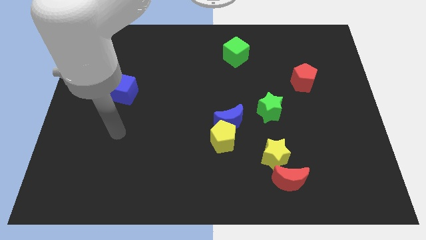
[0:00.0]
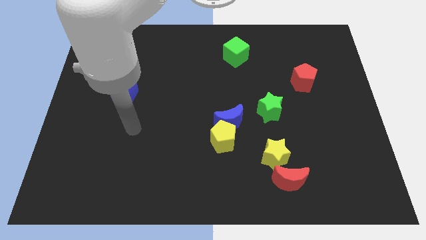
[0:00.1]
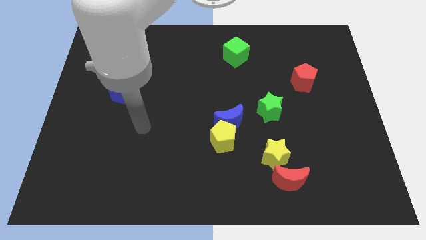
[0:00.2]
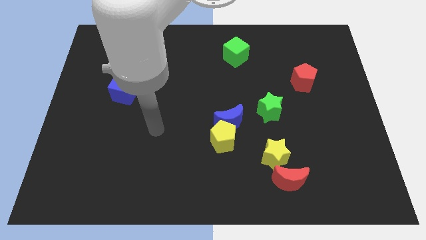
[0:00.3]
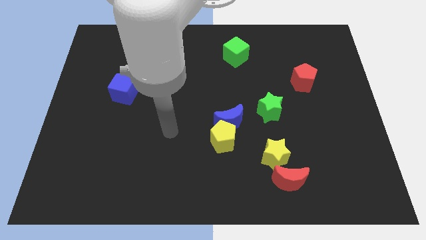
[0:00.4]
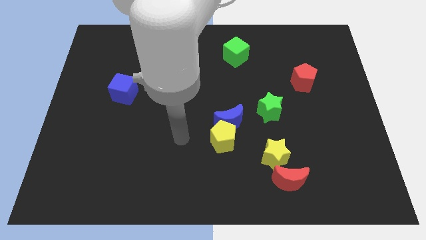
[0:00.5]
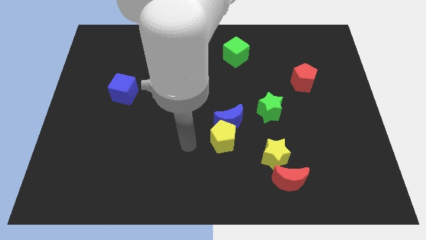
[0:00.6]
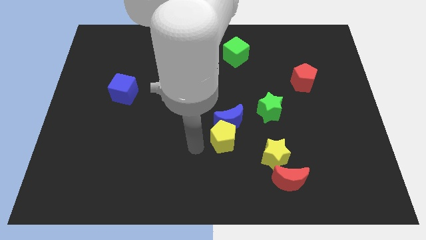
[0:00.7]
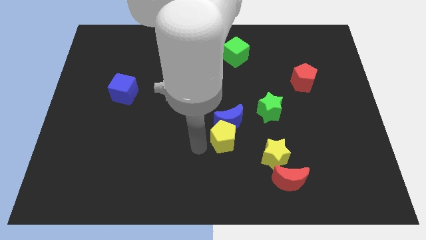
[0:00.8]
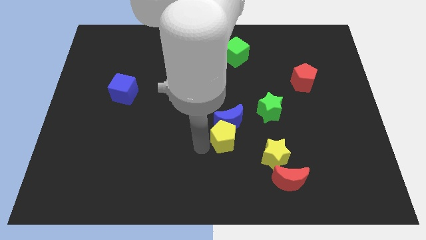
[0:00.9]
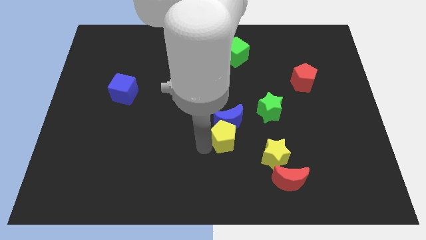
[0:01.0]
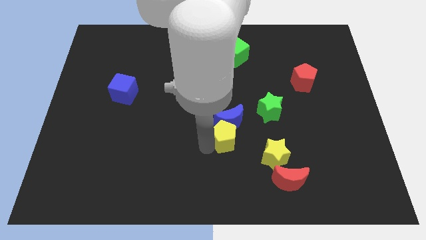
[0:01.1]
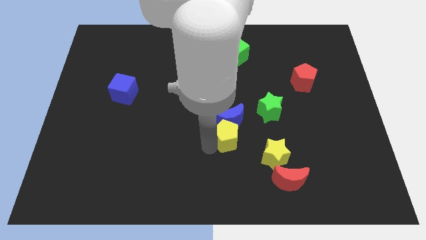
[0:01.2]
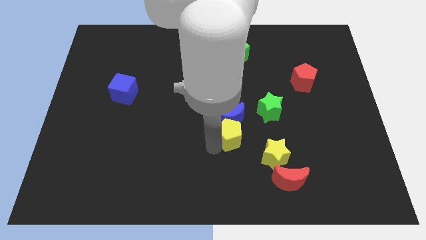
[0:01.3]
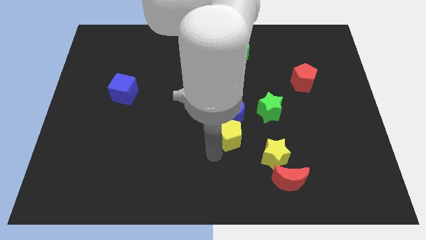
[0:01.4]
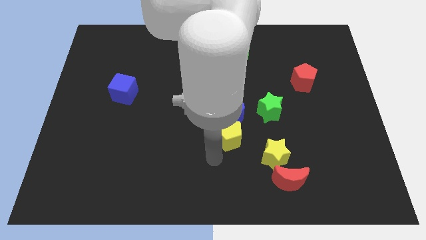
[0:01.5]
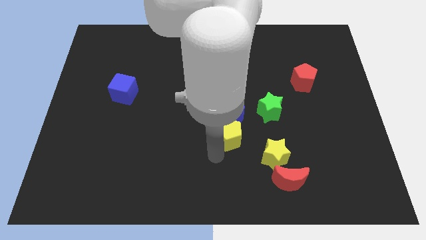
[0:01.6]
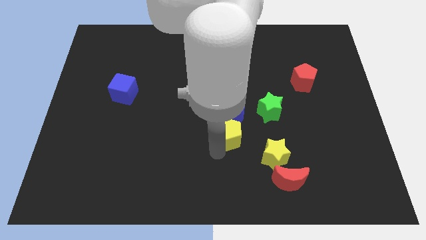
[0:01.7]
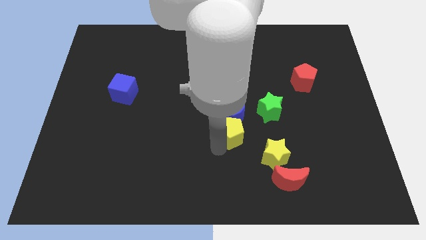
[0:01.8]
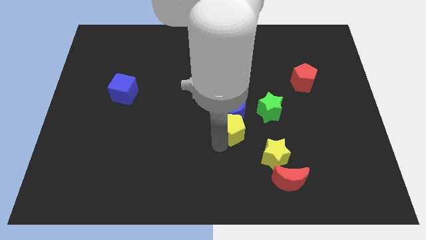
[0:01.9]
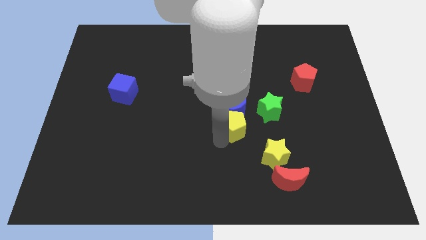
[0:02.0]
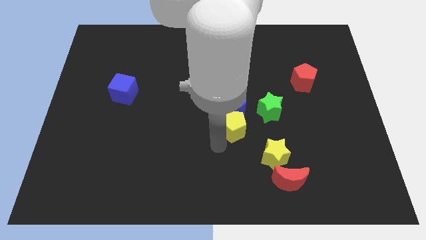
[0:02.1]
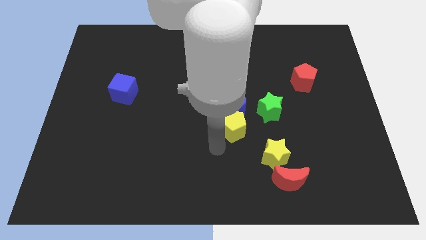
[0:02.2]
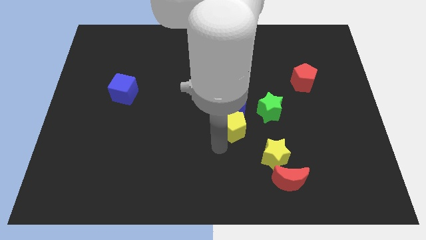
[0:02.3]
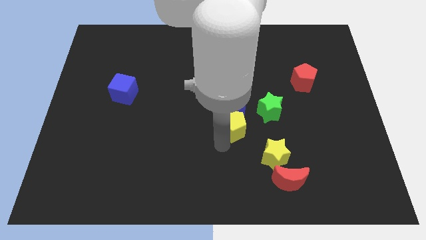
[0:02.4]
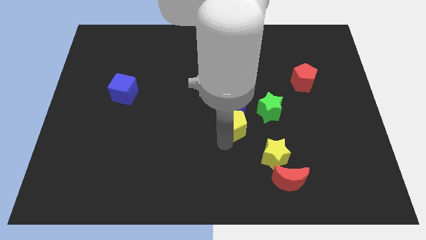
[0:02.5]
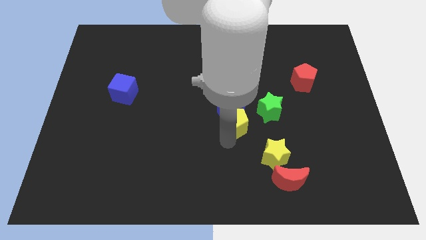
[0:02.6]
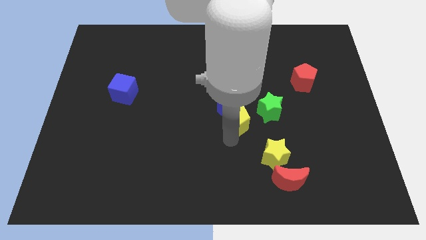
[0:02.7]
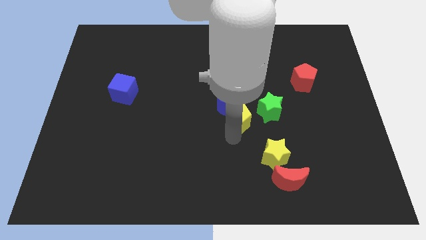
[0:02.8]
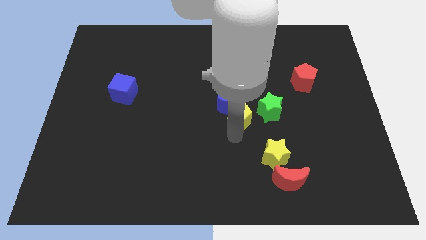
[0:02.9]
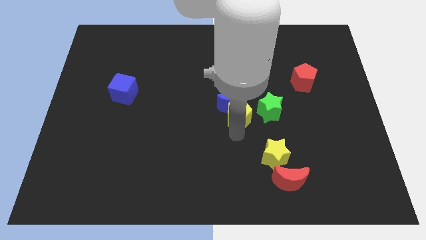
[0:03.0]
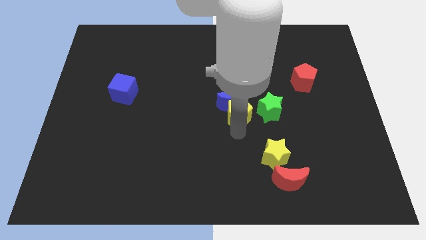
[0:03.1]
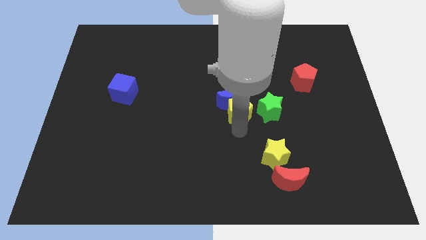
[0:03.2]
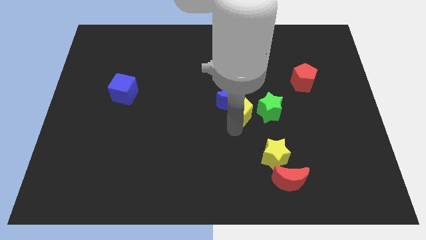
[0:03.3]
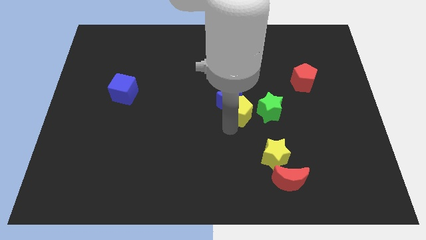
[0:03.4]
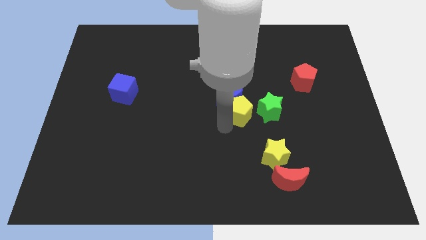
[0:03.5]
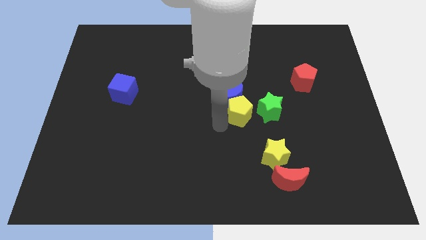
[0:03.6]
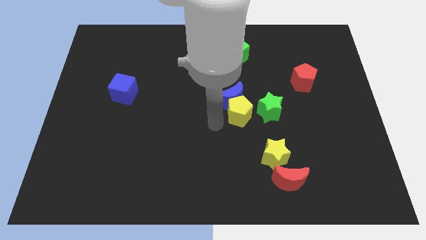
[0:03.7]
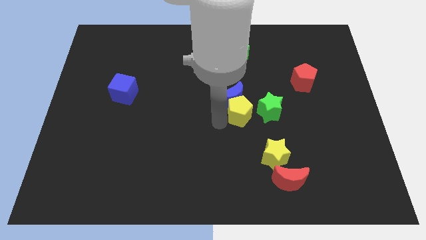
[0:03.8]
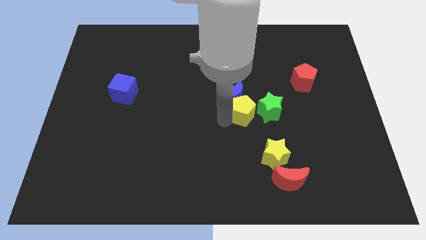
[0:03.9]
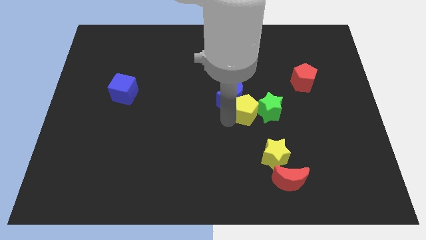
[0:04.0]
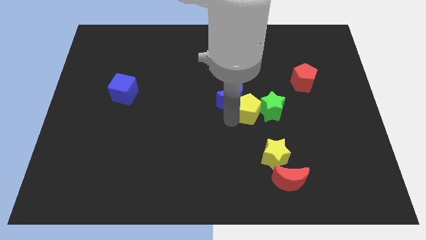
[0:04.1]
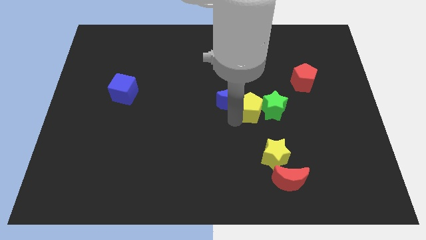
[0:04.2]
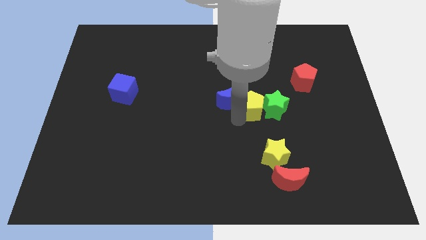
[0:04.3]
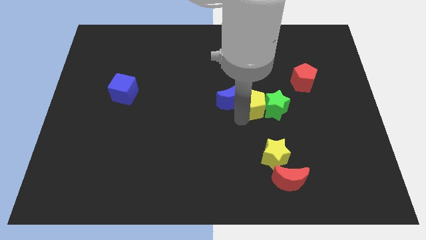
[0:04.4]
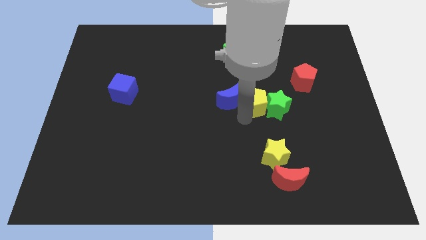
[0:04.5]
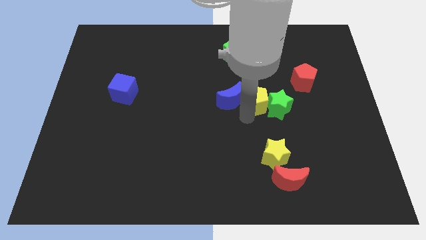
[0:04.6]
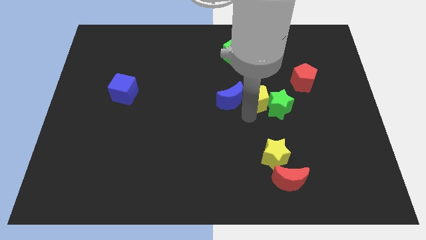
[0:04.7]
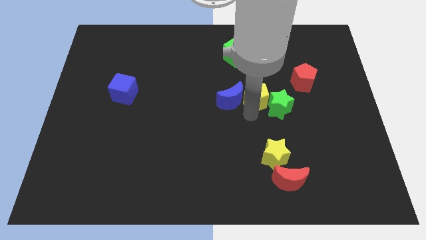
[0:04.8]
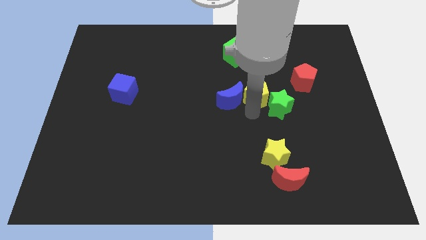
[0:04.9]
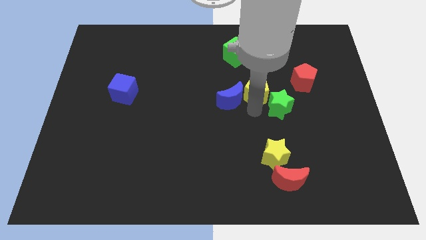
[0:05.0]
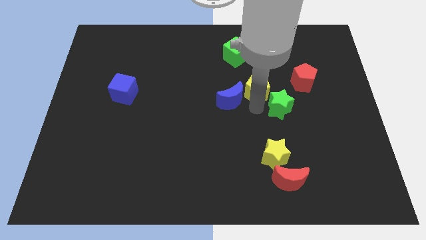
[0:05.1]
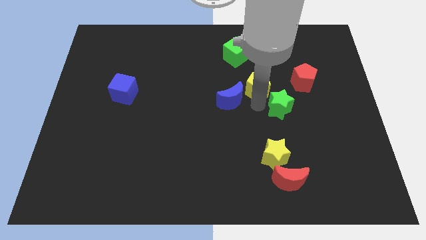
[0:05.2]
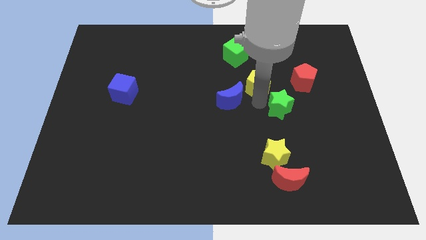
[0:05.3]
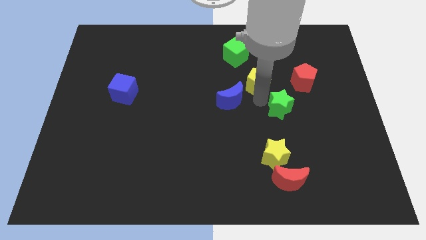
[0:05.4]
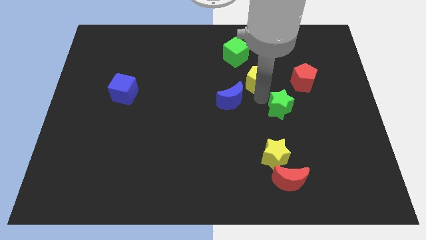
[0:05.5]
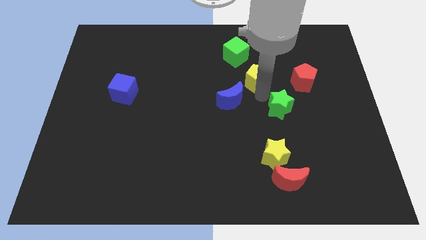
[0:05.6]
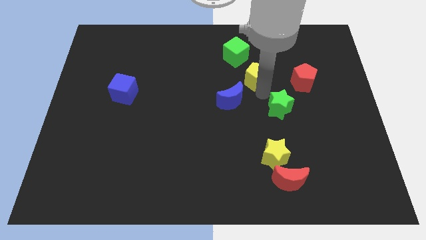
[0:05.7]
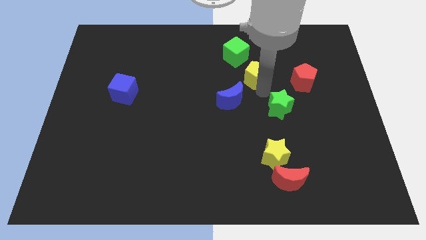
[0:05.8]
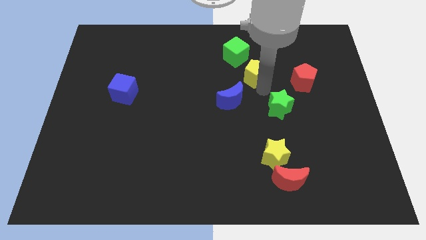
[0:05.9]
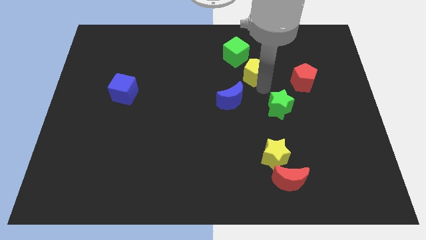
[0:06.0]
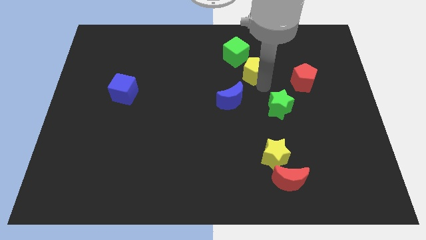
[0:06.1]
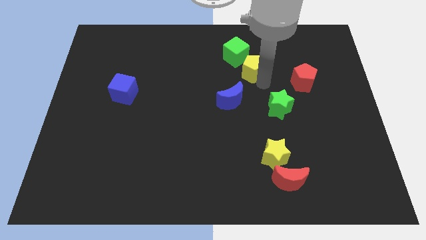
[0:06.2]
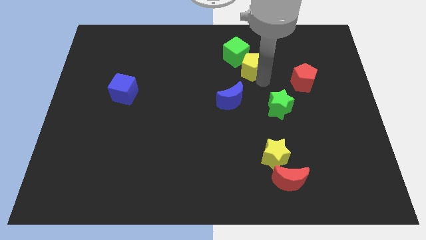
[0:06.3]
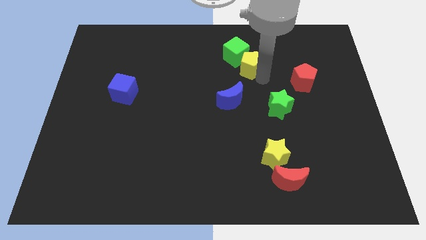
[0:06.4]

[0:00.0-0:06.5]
push the yellow pentagon next to the green cube
